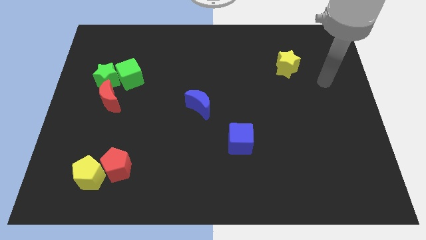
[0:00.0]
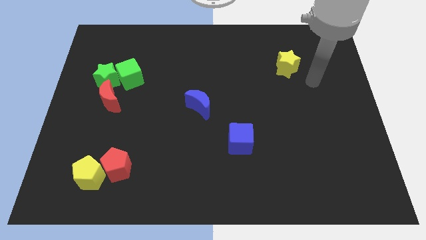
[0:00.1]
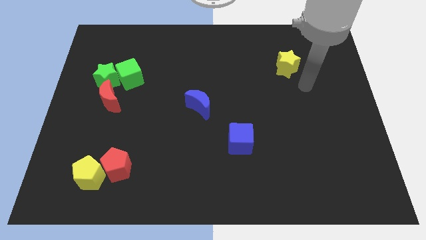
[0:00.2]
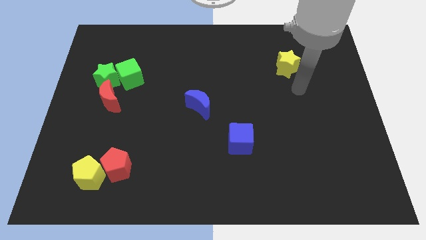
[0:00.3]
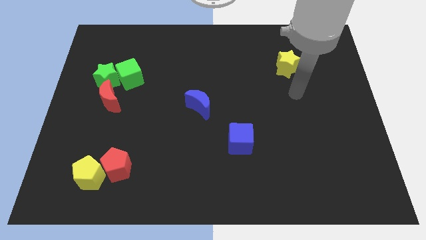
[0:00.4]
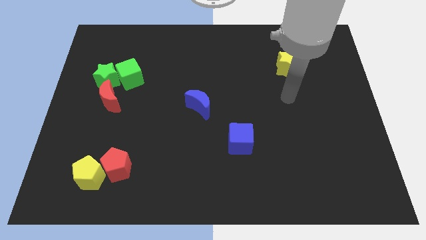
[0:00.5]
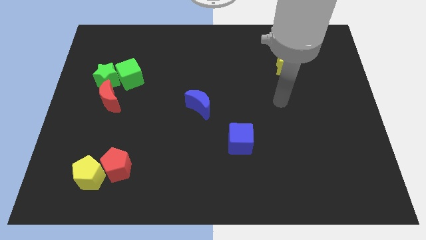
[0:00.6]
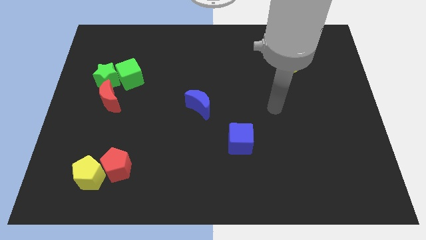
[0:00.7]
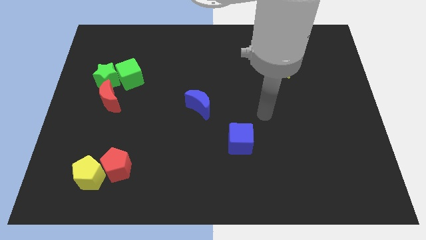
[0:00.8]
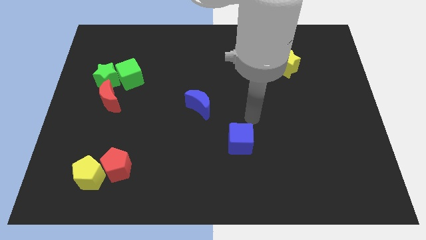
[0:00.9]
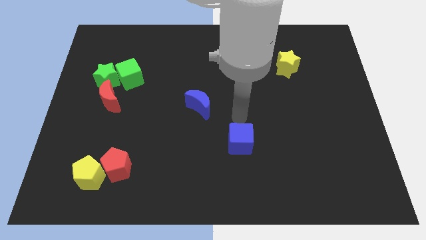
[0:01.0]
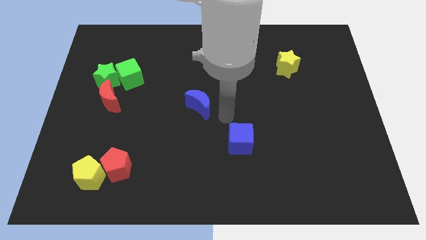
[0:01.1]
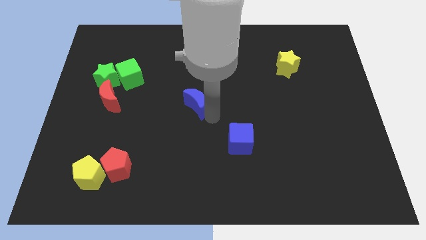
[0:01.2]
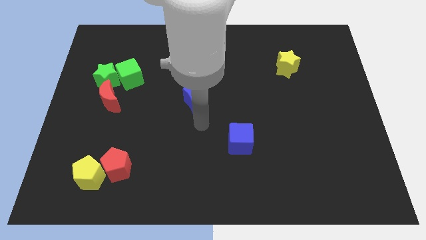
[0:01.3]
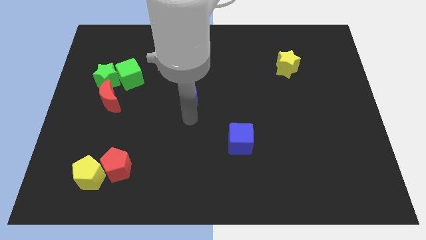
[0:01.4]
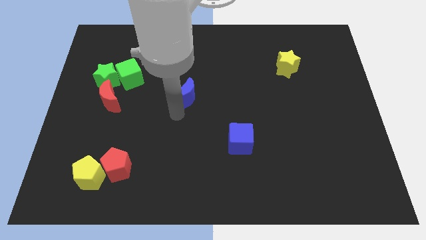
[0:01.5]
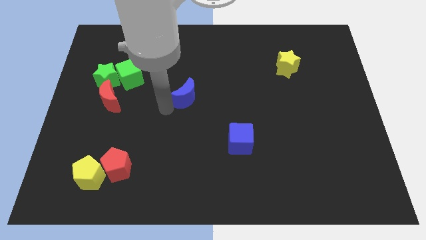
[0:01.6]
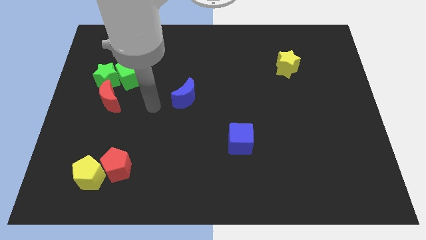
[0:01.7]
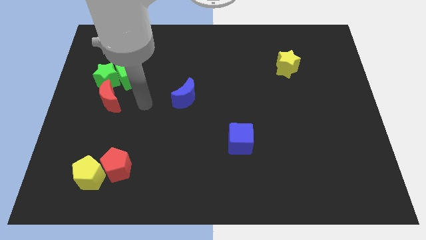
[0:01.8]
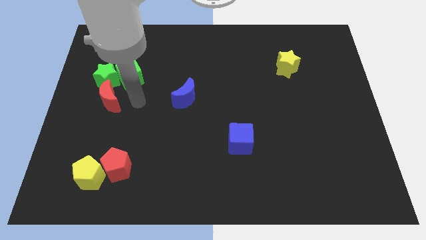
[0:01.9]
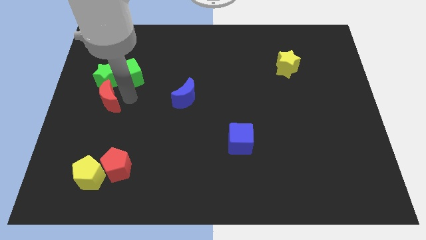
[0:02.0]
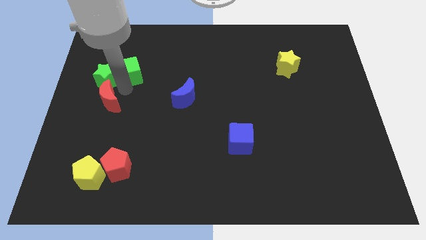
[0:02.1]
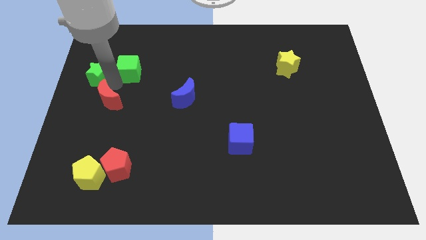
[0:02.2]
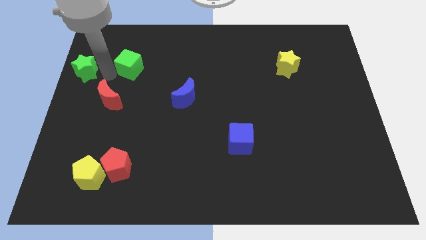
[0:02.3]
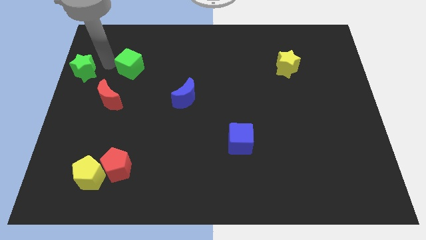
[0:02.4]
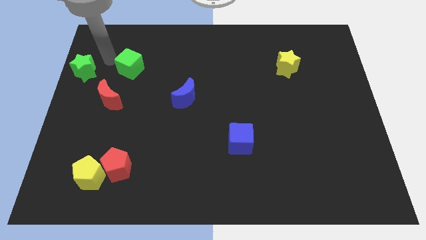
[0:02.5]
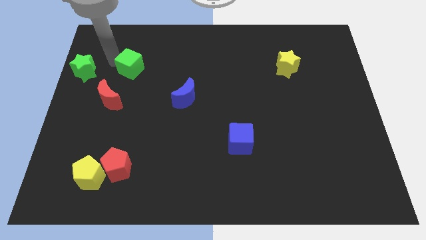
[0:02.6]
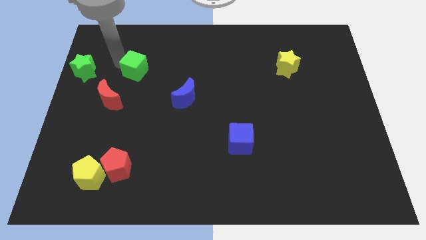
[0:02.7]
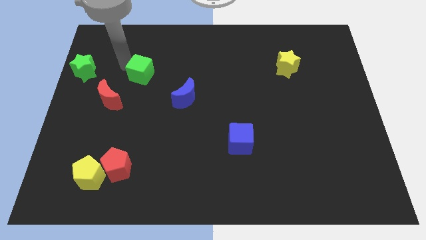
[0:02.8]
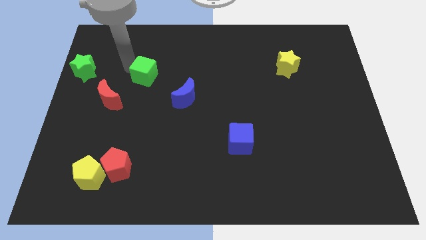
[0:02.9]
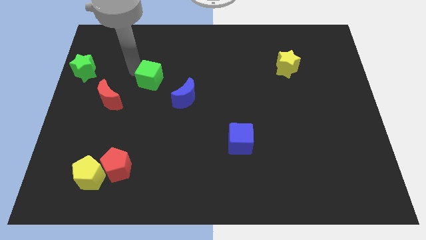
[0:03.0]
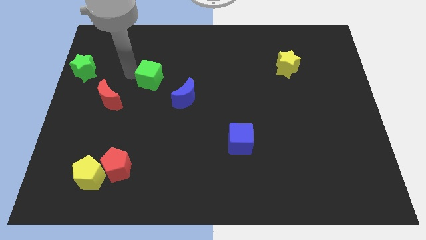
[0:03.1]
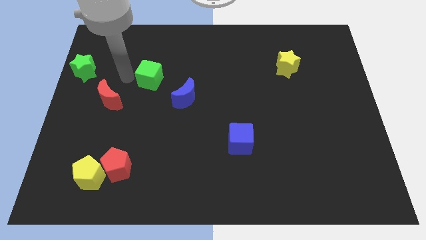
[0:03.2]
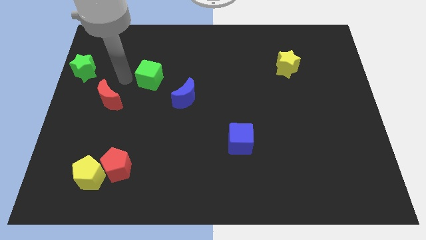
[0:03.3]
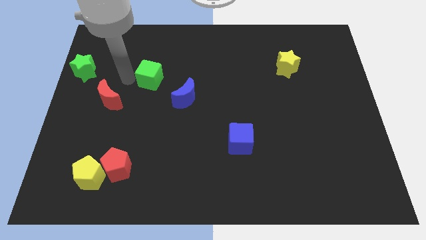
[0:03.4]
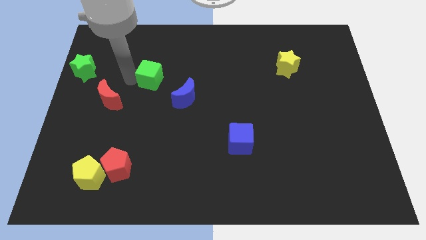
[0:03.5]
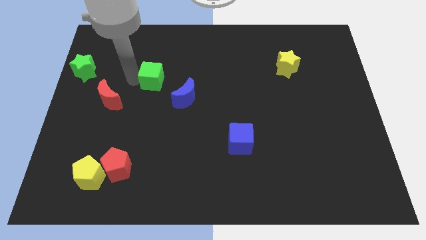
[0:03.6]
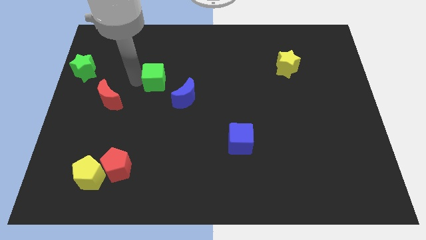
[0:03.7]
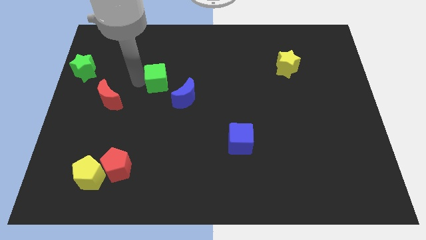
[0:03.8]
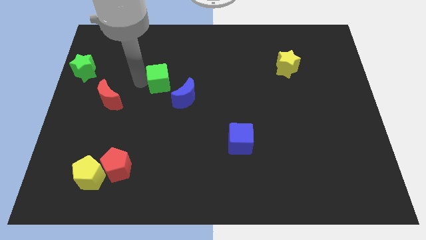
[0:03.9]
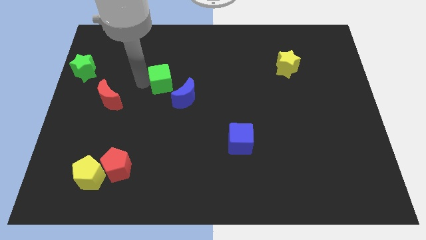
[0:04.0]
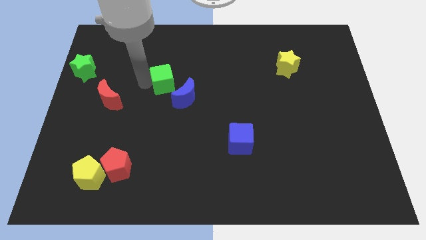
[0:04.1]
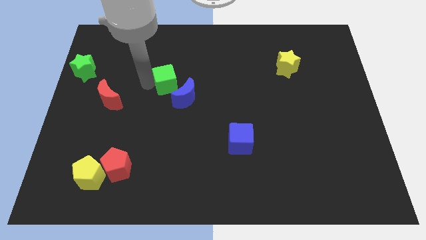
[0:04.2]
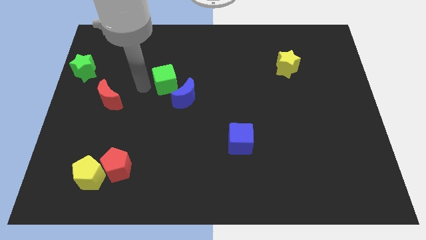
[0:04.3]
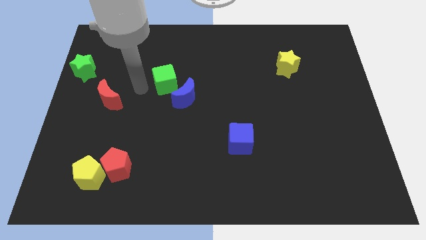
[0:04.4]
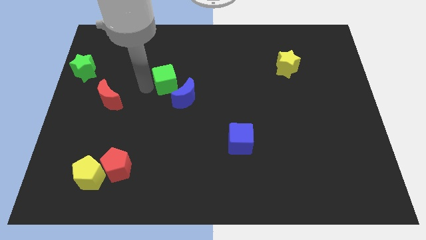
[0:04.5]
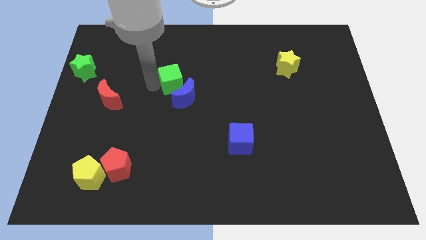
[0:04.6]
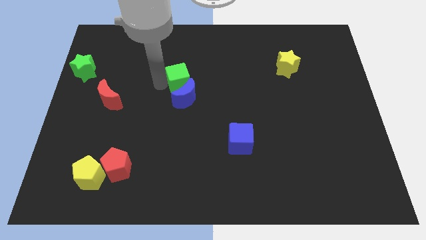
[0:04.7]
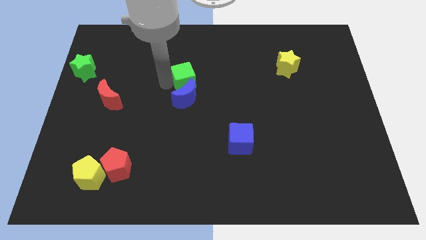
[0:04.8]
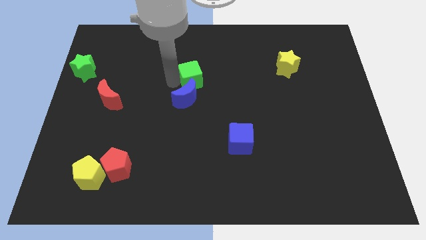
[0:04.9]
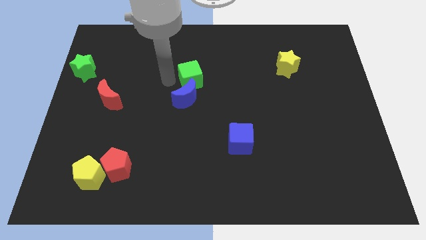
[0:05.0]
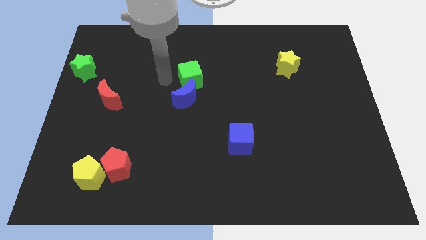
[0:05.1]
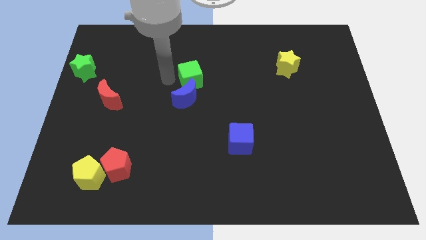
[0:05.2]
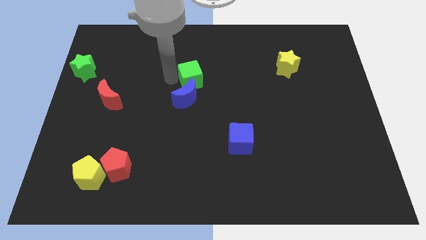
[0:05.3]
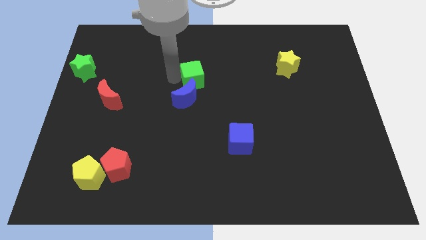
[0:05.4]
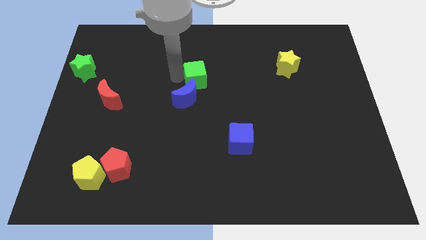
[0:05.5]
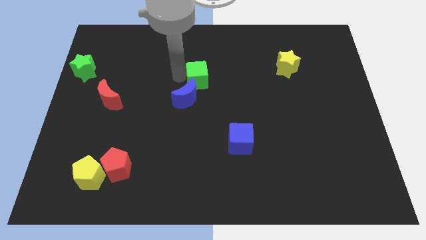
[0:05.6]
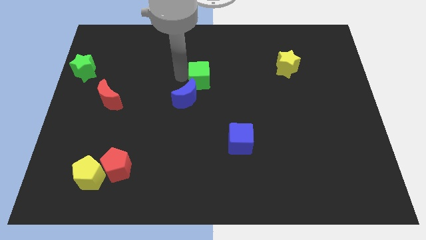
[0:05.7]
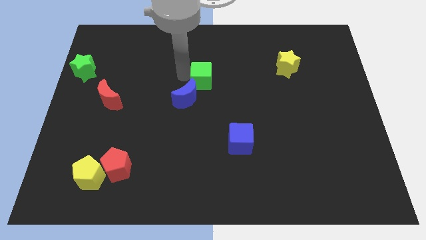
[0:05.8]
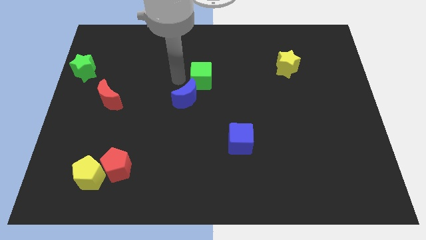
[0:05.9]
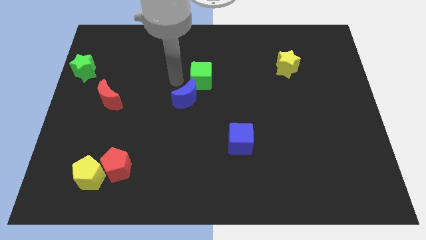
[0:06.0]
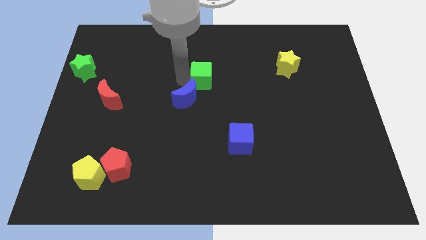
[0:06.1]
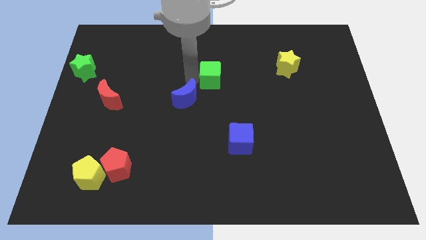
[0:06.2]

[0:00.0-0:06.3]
slide the green cube right

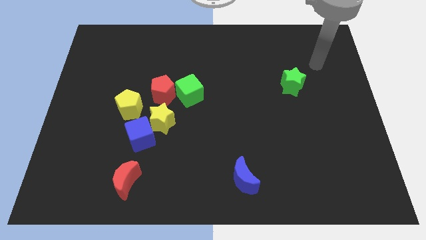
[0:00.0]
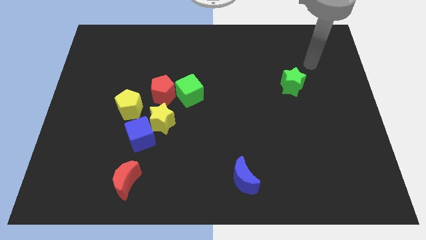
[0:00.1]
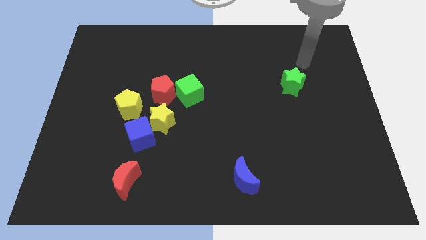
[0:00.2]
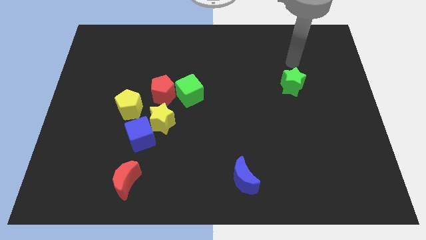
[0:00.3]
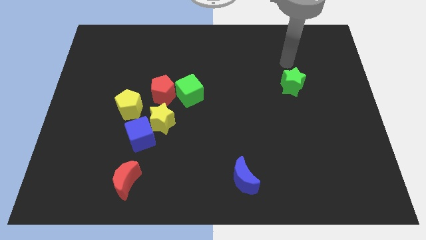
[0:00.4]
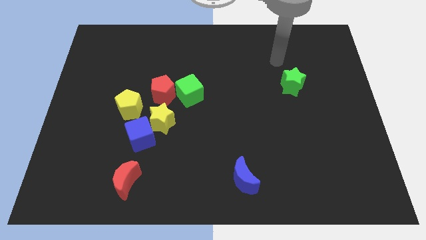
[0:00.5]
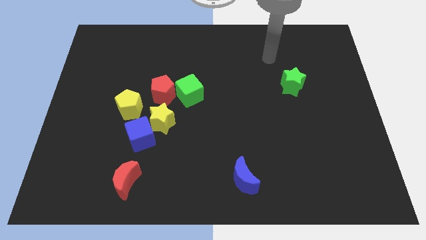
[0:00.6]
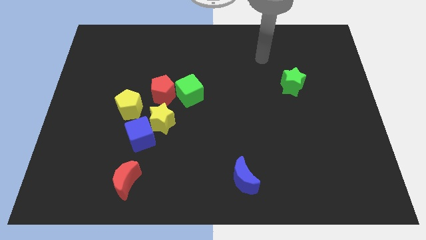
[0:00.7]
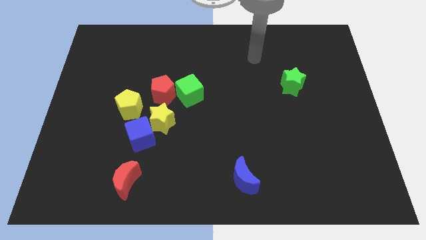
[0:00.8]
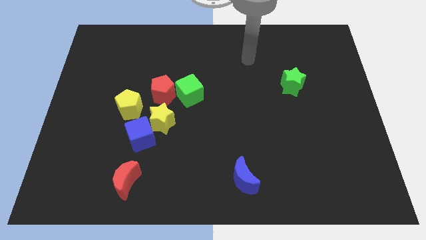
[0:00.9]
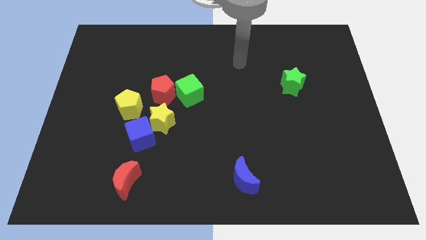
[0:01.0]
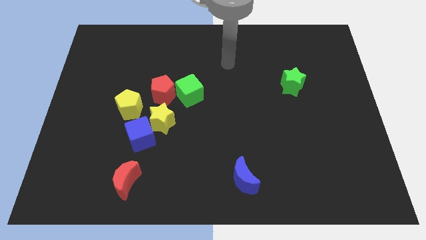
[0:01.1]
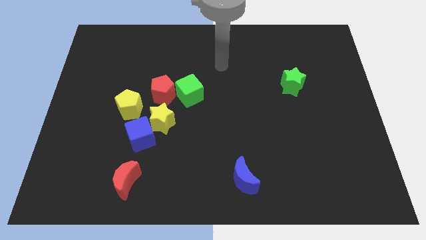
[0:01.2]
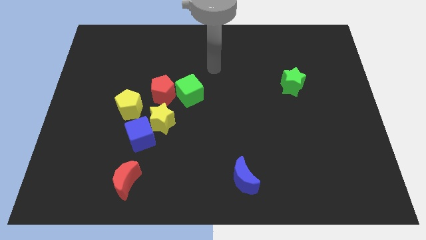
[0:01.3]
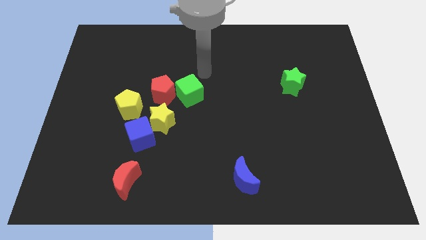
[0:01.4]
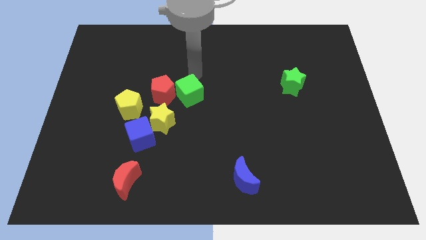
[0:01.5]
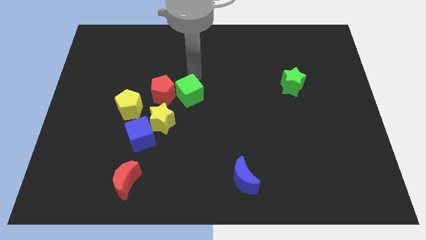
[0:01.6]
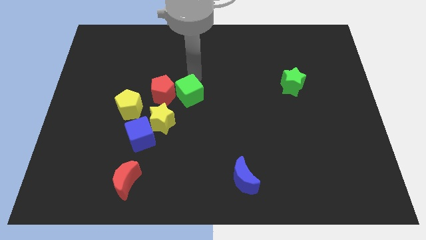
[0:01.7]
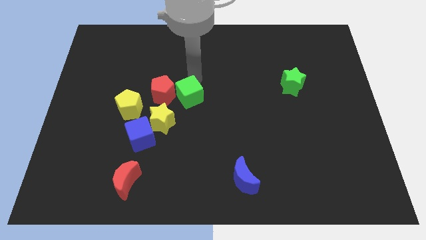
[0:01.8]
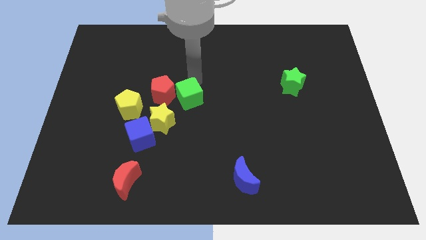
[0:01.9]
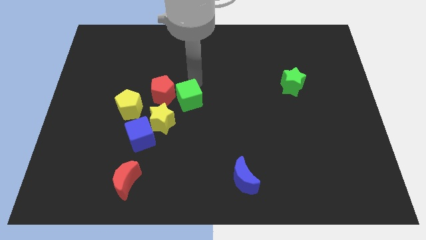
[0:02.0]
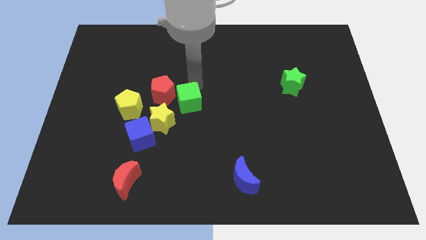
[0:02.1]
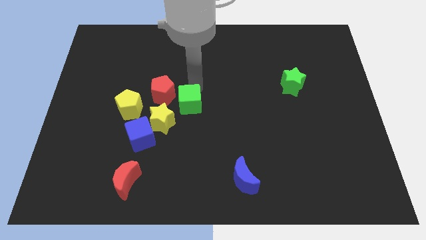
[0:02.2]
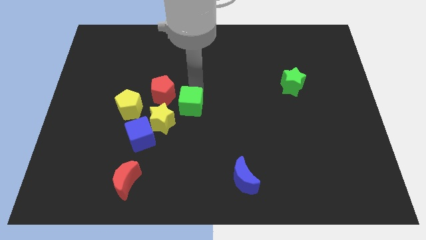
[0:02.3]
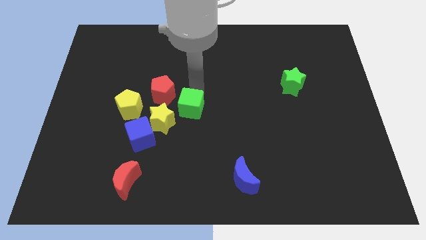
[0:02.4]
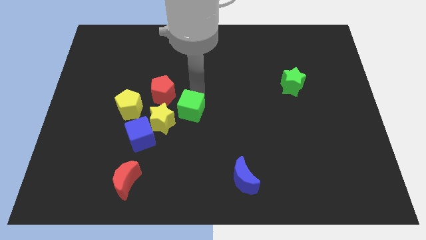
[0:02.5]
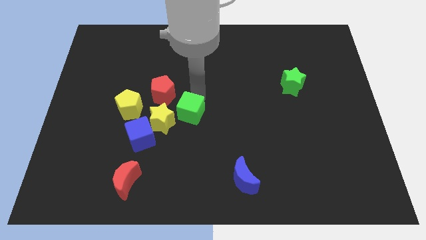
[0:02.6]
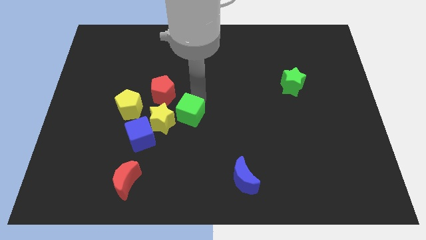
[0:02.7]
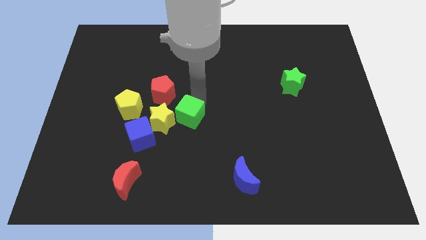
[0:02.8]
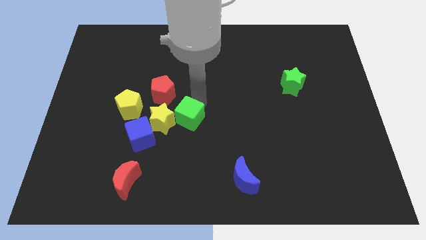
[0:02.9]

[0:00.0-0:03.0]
slide the green cube down a little bit
